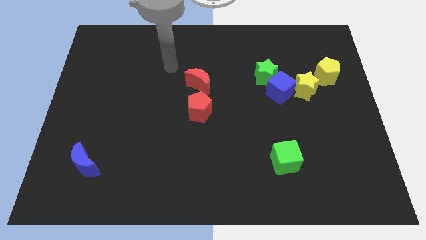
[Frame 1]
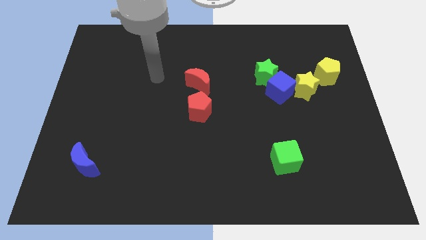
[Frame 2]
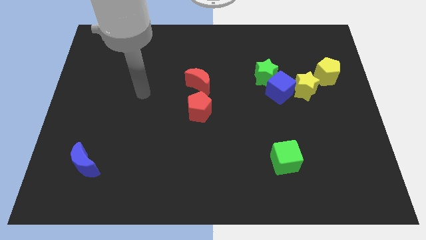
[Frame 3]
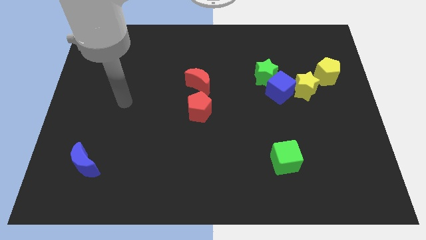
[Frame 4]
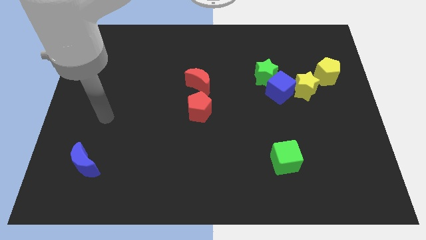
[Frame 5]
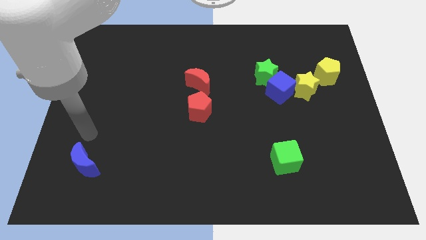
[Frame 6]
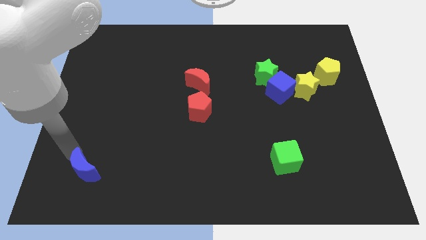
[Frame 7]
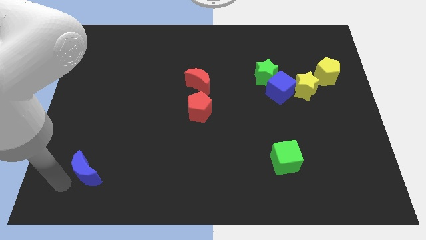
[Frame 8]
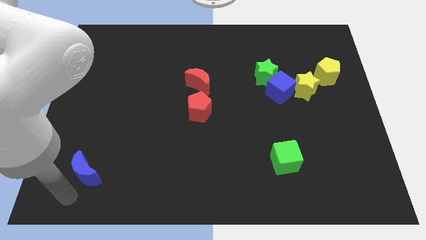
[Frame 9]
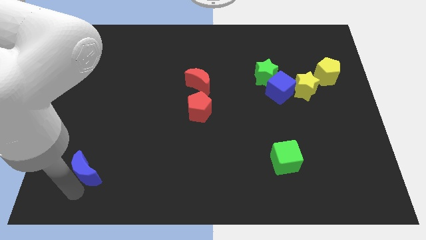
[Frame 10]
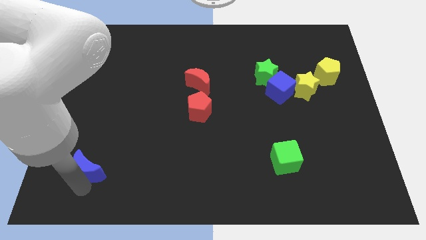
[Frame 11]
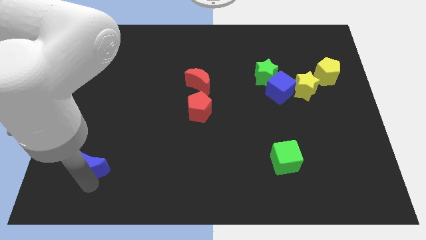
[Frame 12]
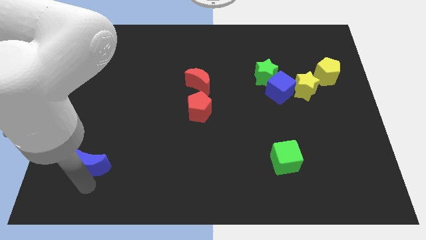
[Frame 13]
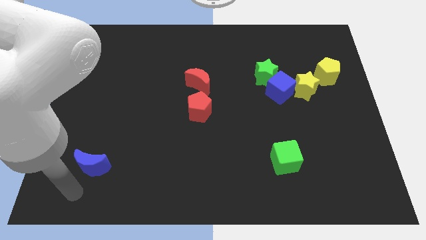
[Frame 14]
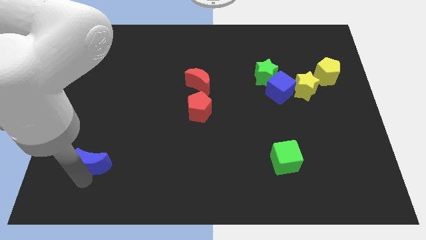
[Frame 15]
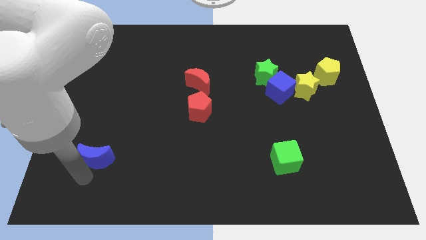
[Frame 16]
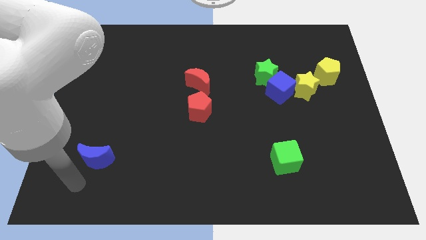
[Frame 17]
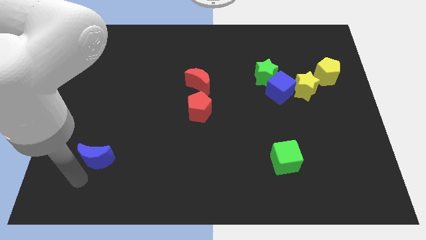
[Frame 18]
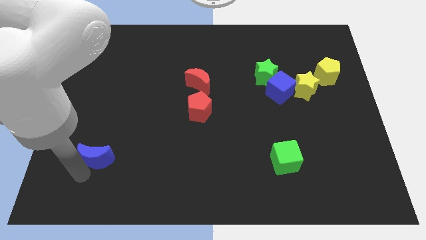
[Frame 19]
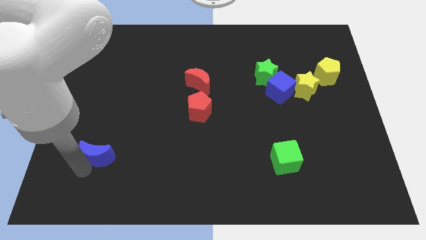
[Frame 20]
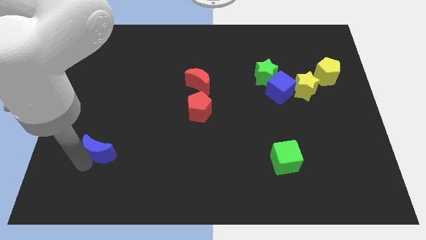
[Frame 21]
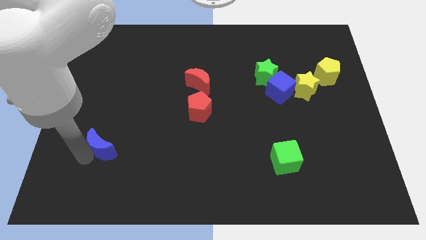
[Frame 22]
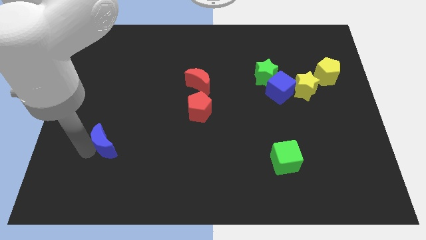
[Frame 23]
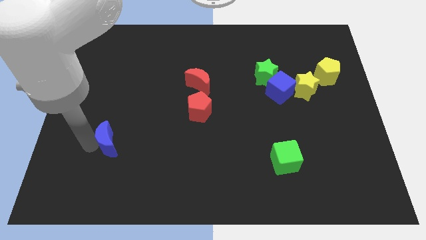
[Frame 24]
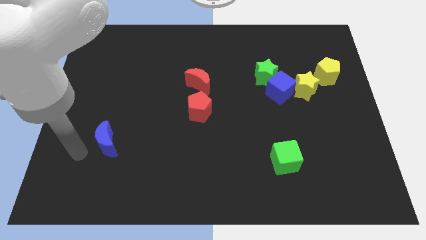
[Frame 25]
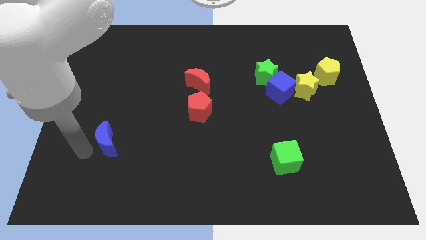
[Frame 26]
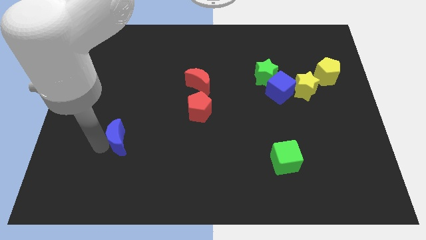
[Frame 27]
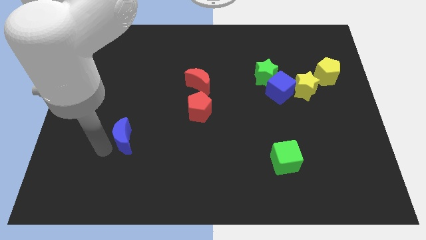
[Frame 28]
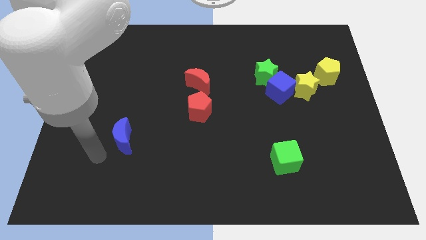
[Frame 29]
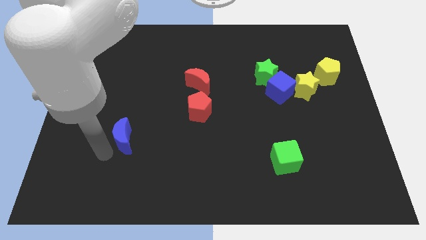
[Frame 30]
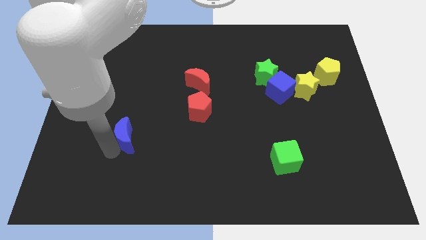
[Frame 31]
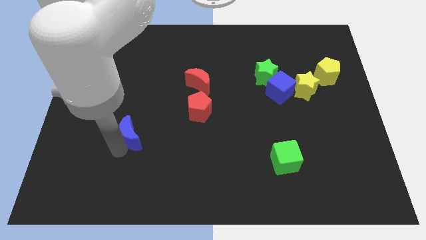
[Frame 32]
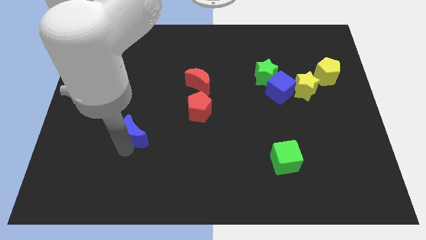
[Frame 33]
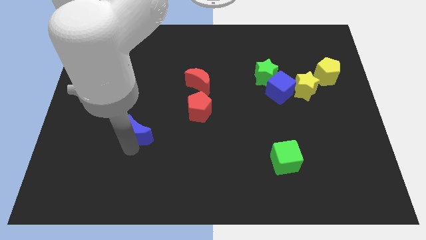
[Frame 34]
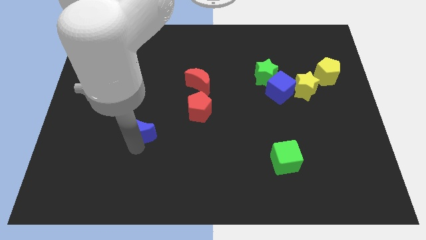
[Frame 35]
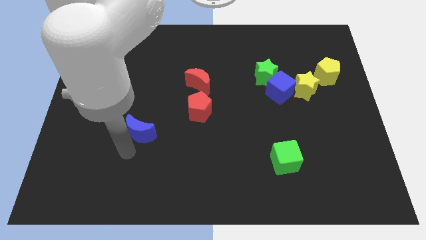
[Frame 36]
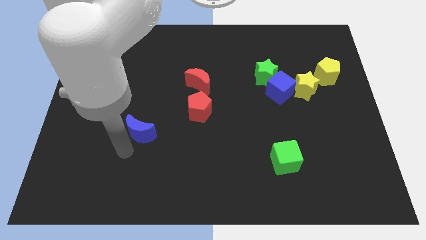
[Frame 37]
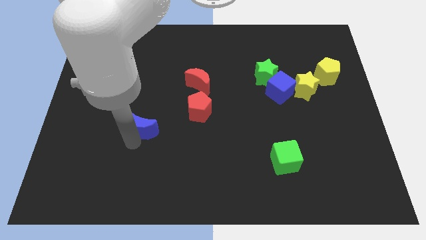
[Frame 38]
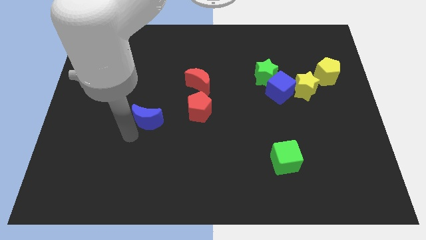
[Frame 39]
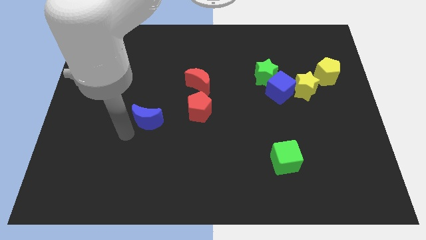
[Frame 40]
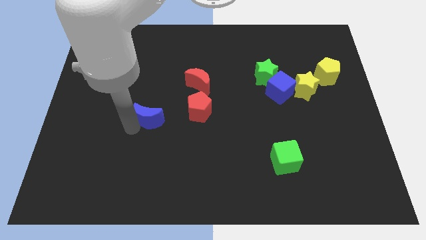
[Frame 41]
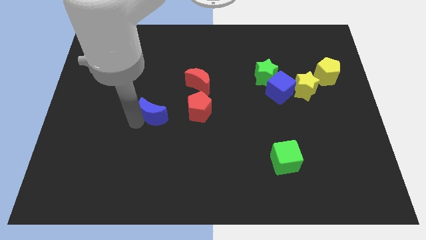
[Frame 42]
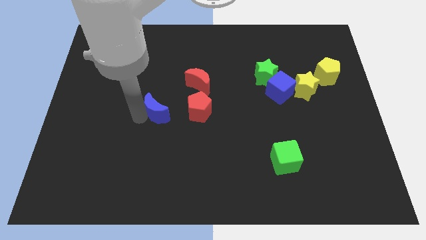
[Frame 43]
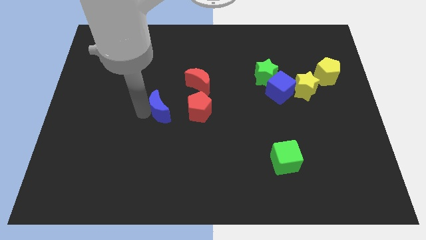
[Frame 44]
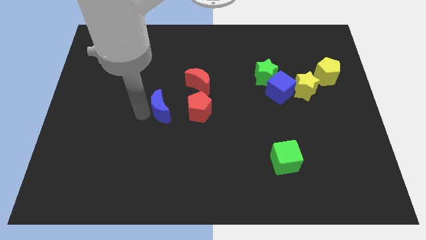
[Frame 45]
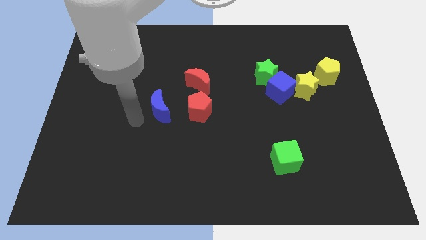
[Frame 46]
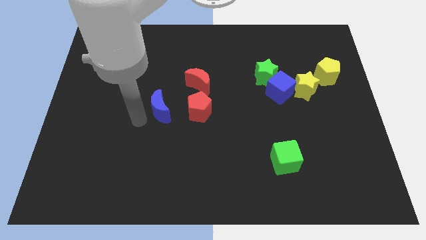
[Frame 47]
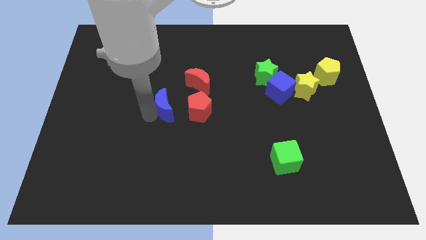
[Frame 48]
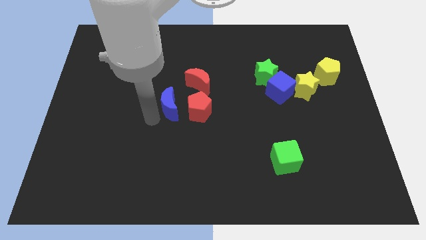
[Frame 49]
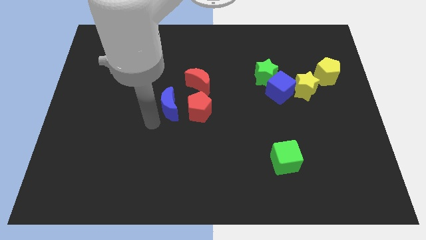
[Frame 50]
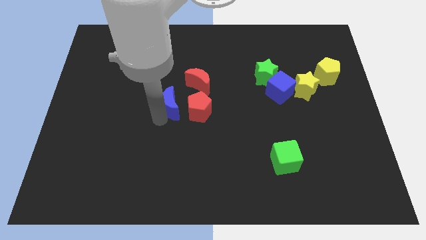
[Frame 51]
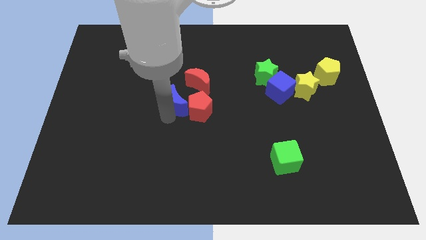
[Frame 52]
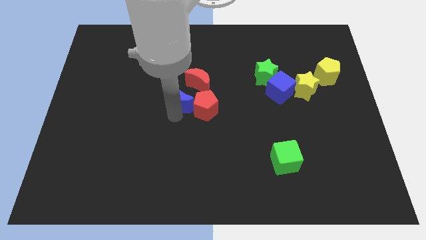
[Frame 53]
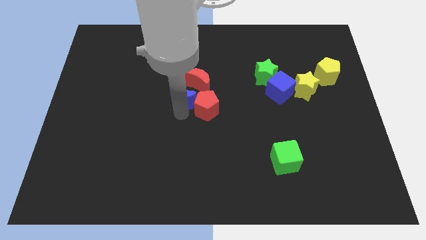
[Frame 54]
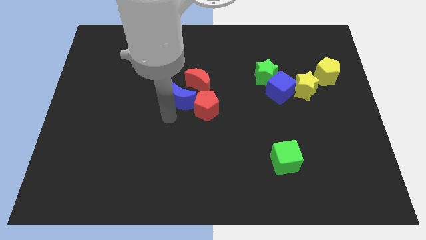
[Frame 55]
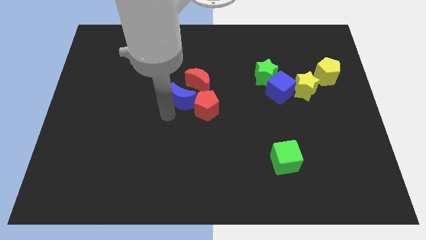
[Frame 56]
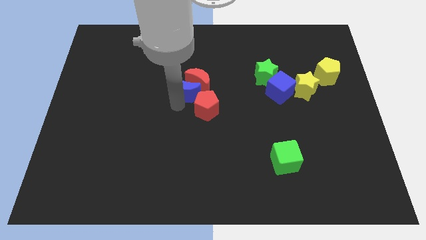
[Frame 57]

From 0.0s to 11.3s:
move the blue moon close to the red moon

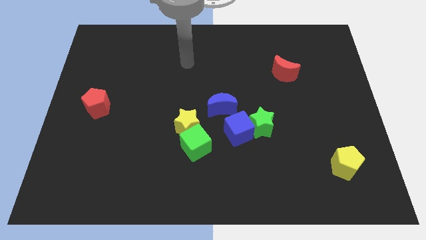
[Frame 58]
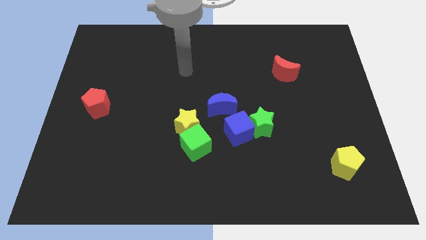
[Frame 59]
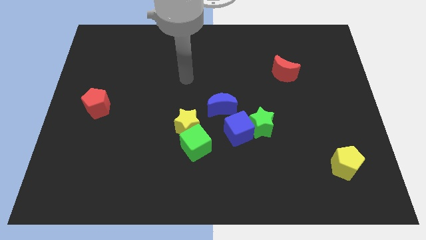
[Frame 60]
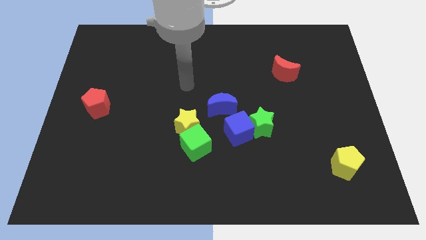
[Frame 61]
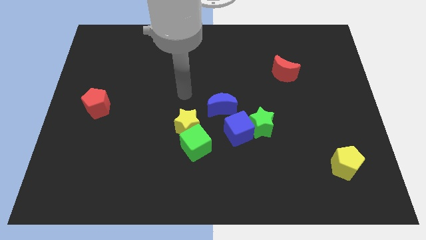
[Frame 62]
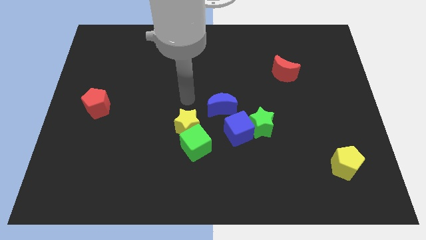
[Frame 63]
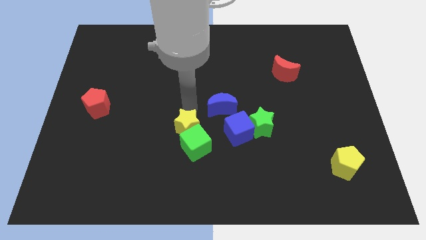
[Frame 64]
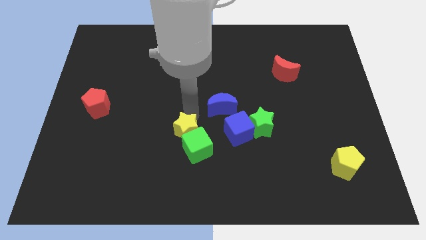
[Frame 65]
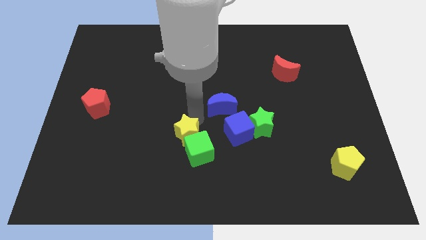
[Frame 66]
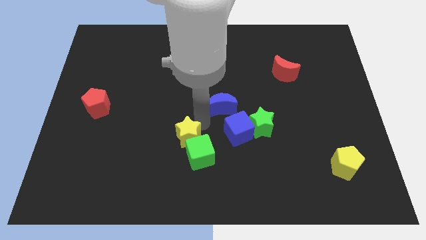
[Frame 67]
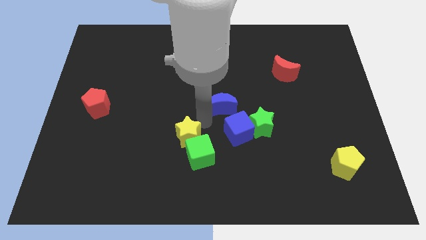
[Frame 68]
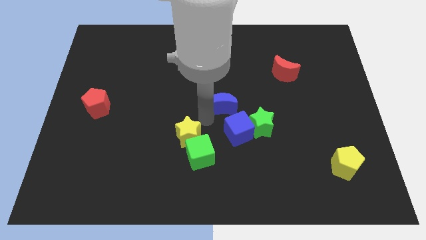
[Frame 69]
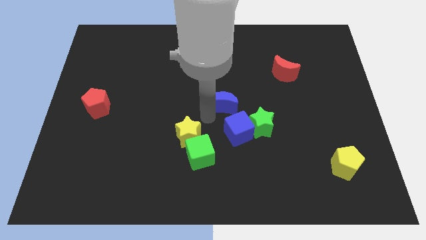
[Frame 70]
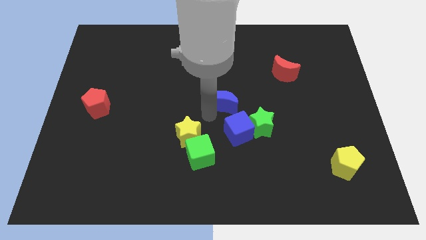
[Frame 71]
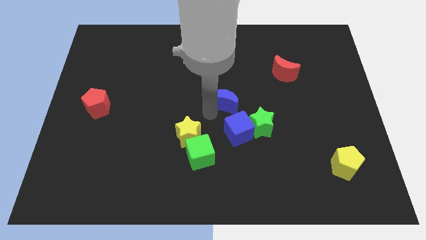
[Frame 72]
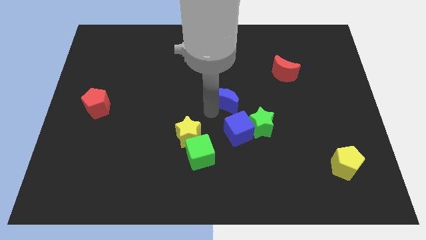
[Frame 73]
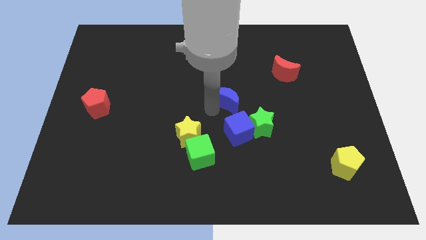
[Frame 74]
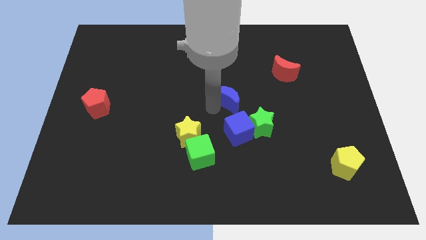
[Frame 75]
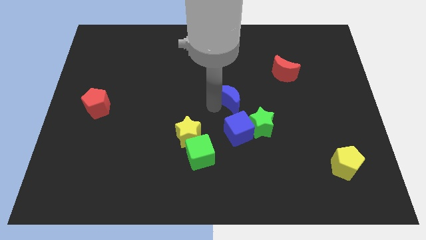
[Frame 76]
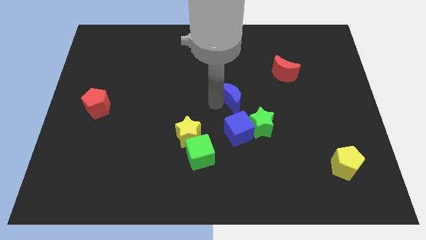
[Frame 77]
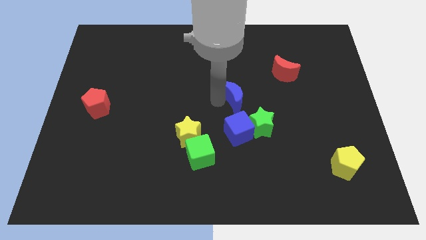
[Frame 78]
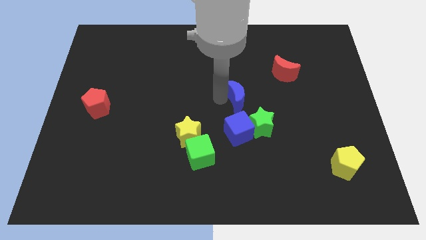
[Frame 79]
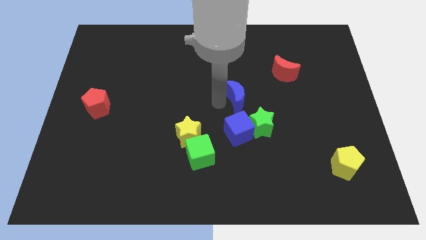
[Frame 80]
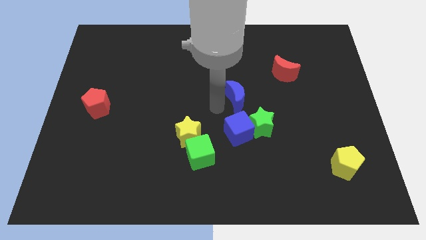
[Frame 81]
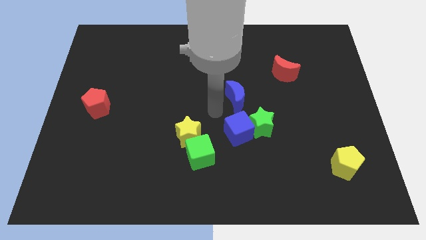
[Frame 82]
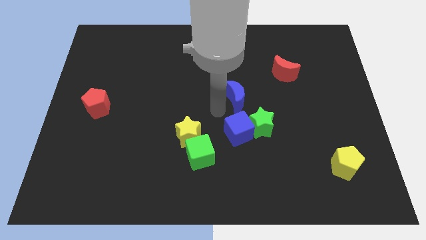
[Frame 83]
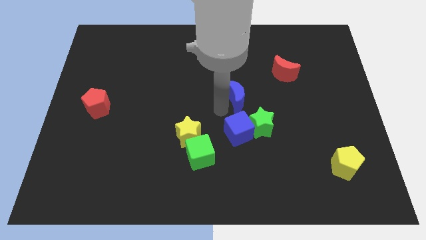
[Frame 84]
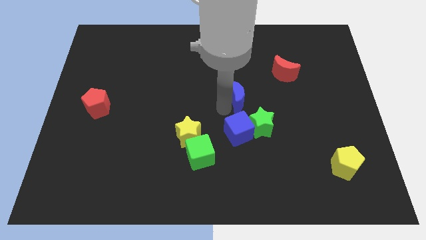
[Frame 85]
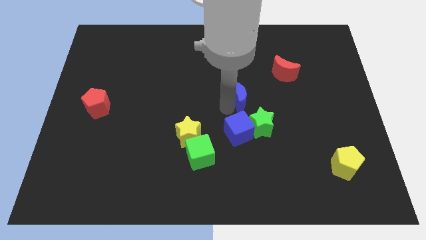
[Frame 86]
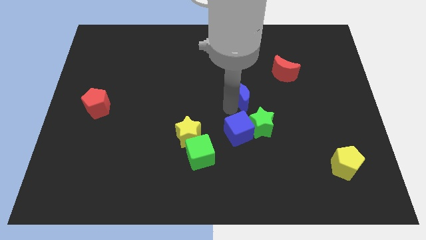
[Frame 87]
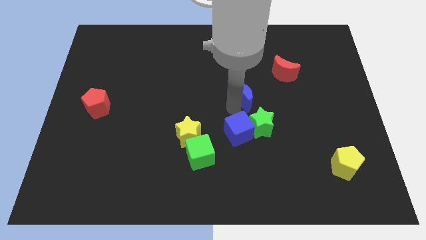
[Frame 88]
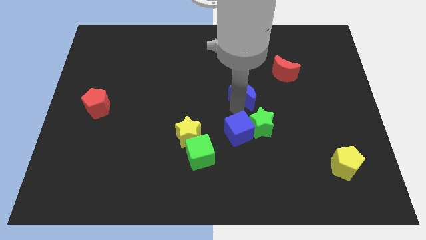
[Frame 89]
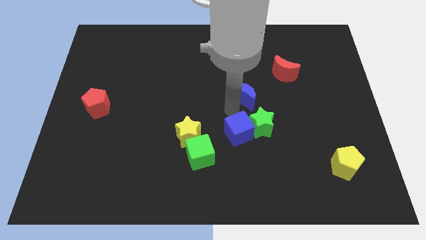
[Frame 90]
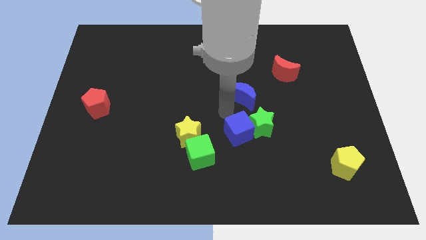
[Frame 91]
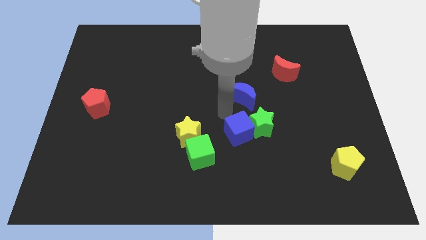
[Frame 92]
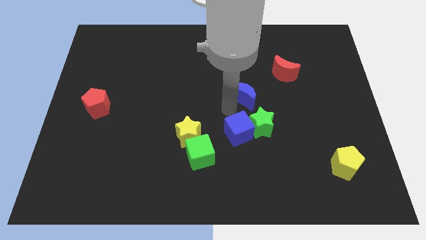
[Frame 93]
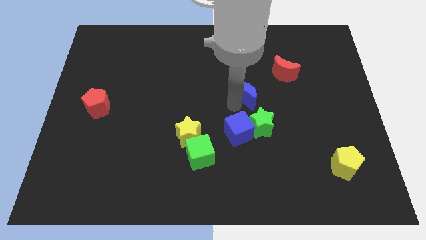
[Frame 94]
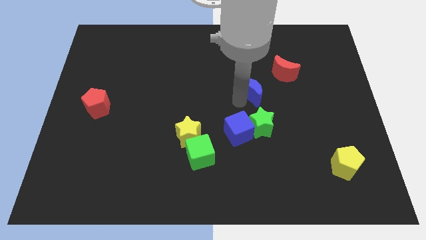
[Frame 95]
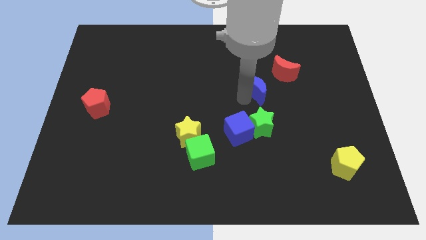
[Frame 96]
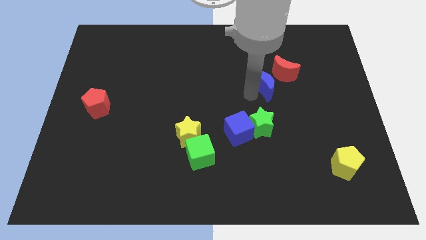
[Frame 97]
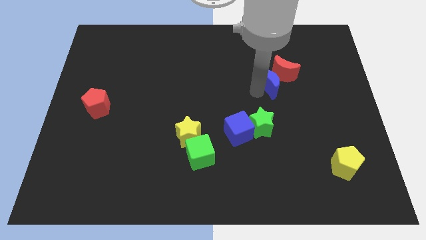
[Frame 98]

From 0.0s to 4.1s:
put the blue moon to the red moon
